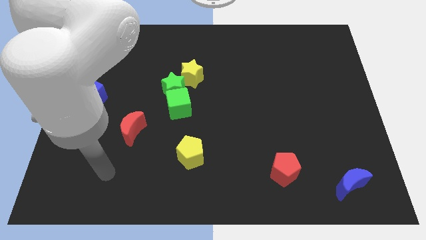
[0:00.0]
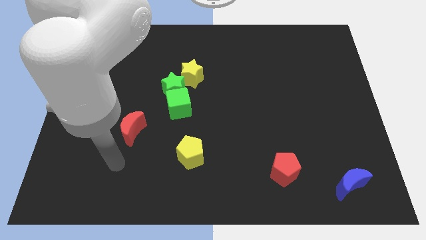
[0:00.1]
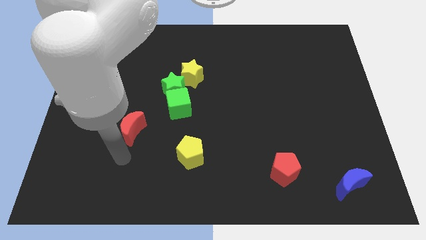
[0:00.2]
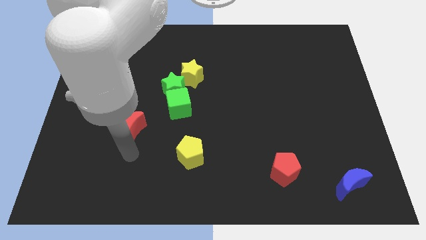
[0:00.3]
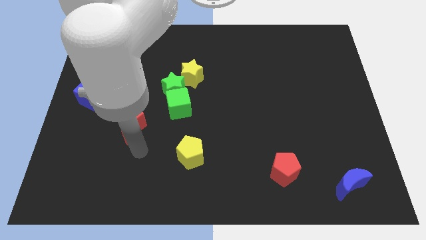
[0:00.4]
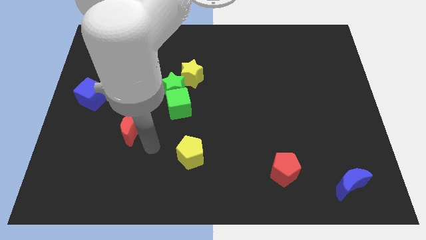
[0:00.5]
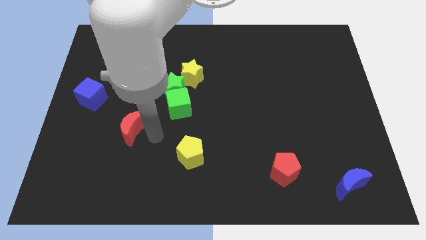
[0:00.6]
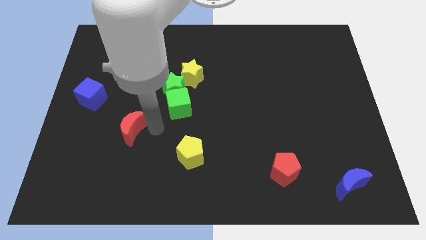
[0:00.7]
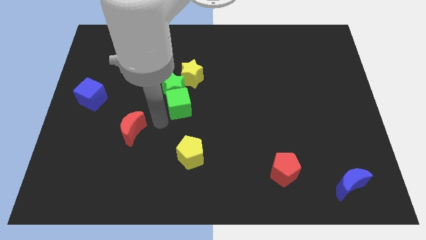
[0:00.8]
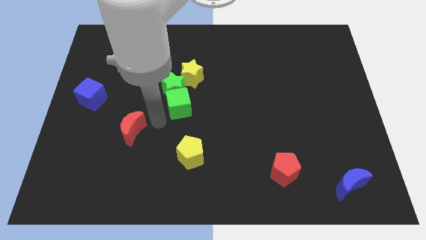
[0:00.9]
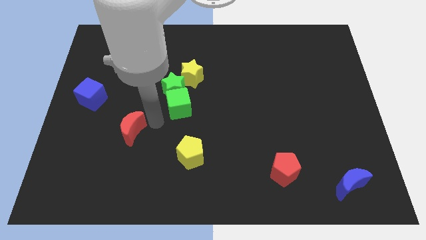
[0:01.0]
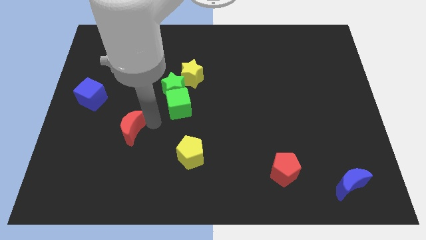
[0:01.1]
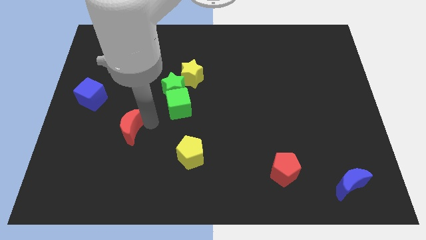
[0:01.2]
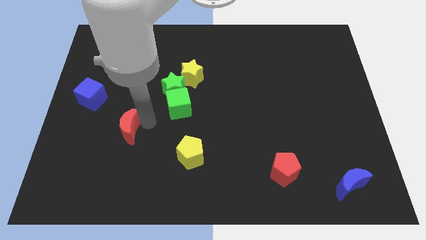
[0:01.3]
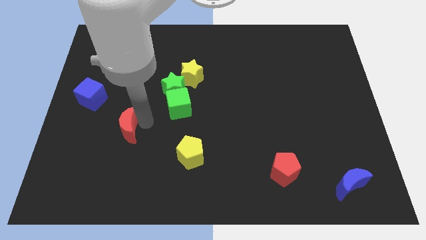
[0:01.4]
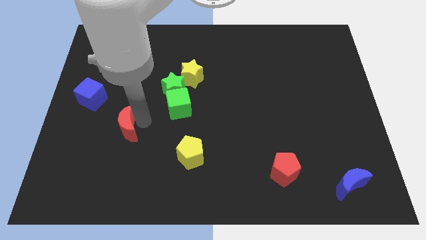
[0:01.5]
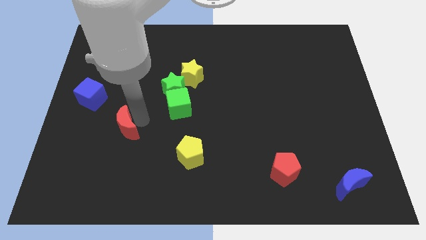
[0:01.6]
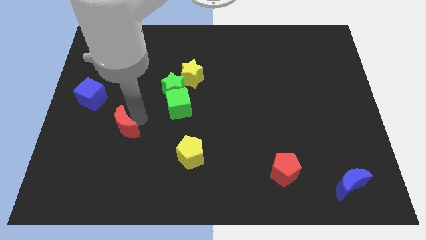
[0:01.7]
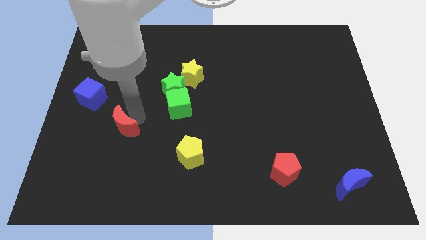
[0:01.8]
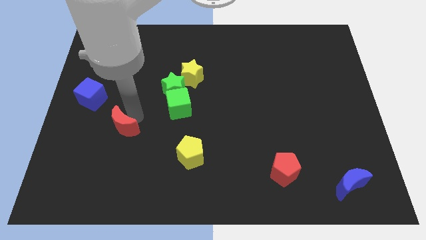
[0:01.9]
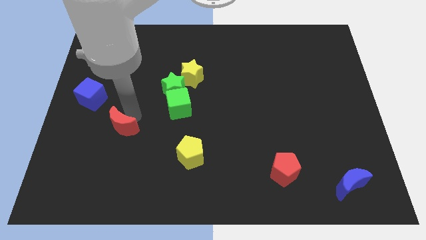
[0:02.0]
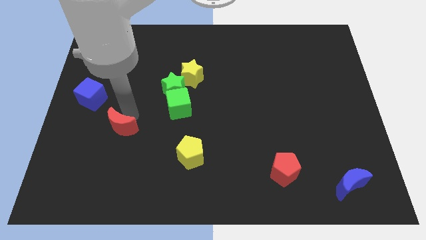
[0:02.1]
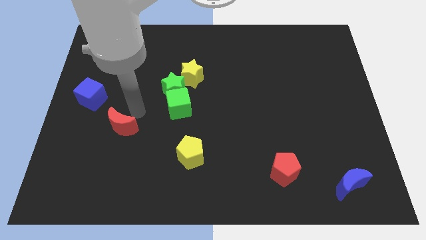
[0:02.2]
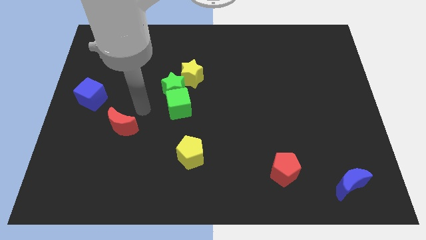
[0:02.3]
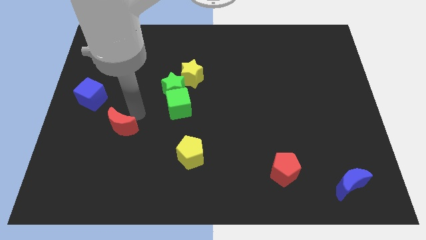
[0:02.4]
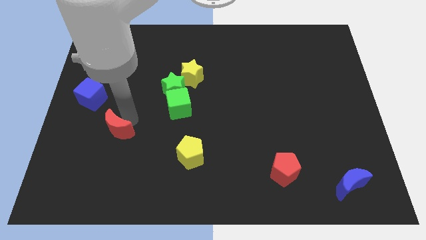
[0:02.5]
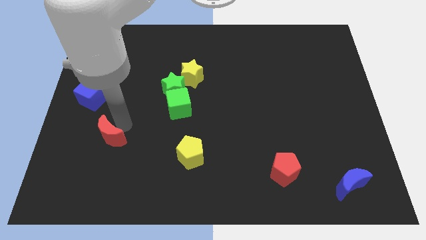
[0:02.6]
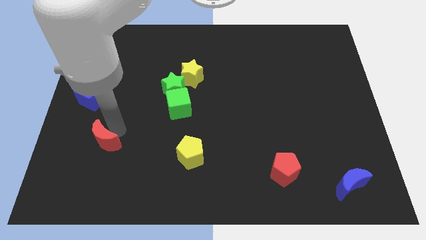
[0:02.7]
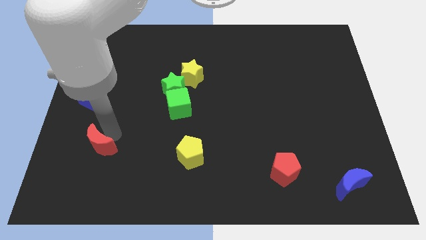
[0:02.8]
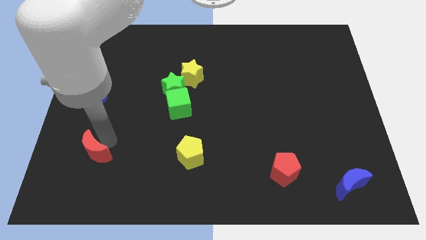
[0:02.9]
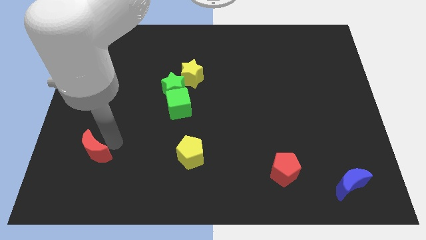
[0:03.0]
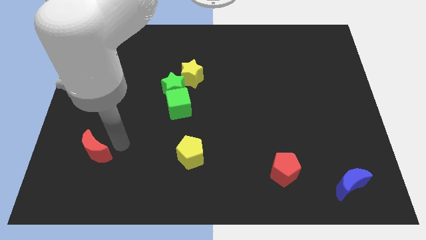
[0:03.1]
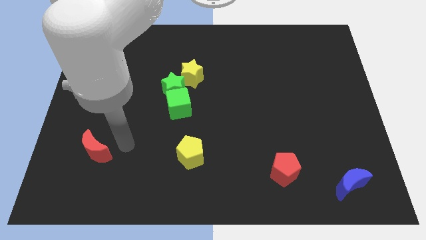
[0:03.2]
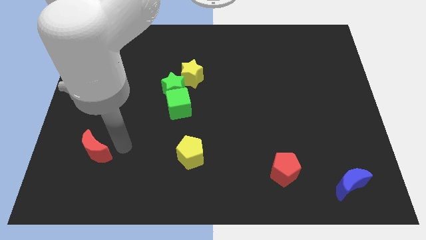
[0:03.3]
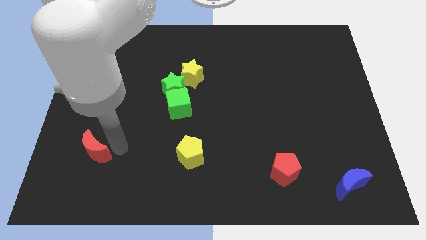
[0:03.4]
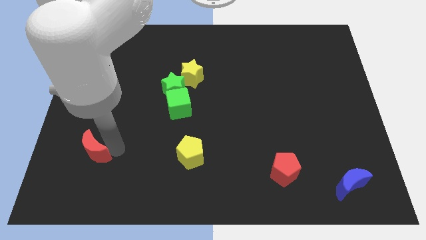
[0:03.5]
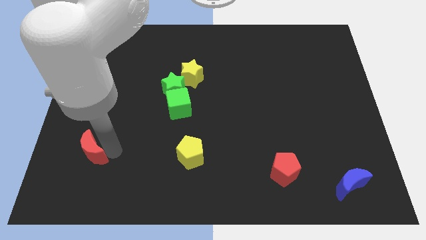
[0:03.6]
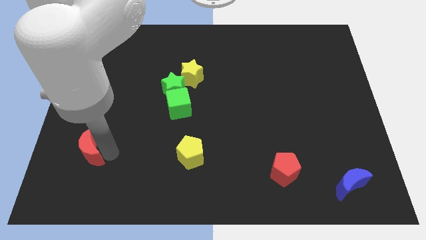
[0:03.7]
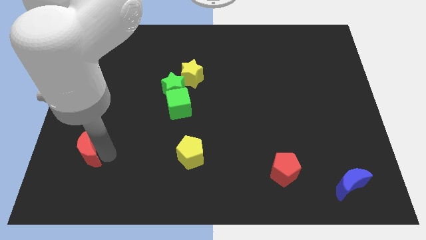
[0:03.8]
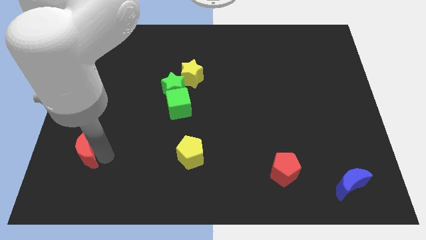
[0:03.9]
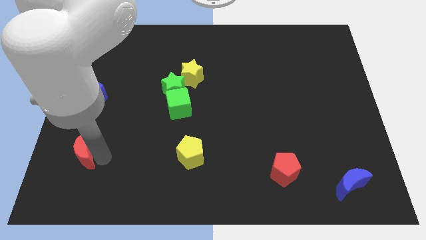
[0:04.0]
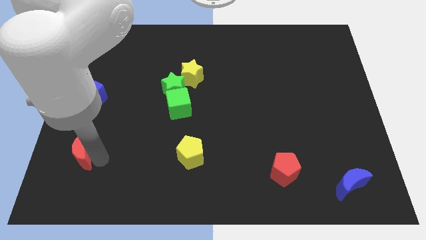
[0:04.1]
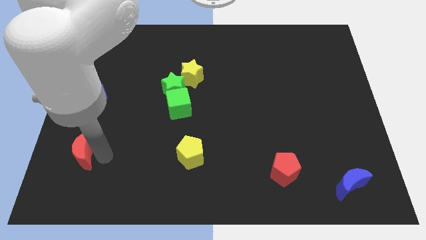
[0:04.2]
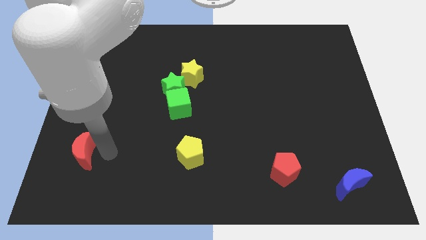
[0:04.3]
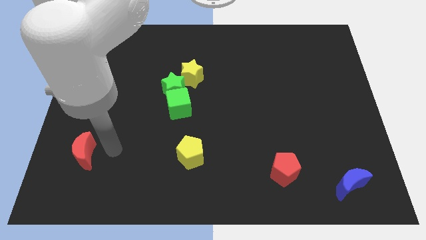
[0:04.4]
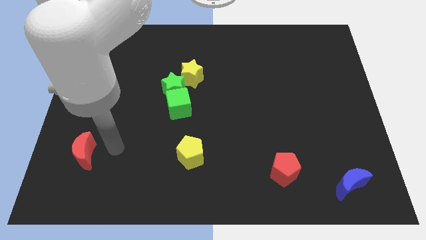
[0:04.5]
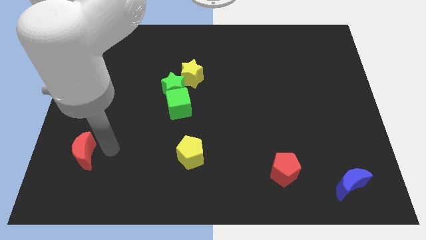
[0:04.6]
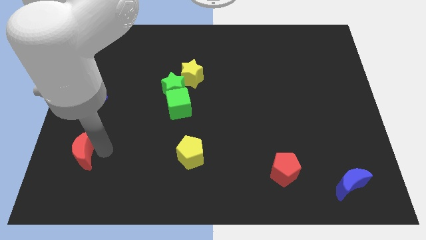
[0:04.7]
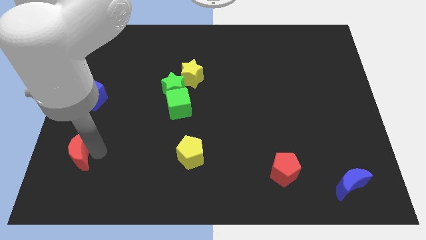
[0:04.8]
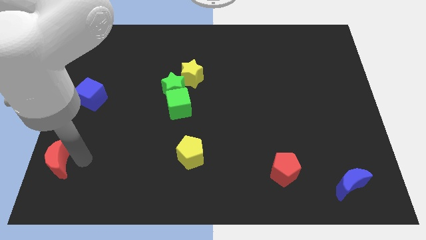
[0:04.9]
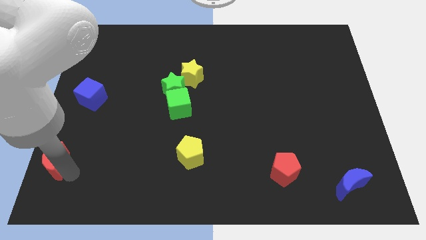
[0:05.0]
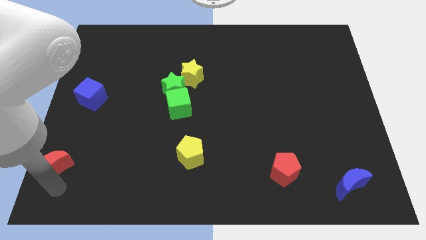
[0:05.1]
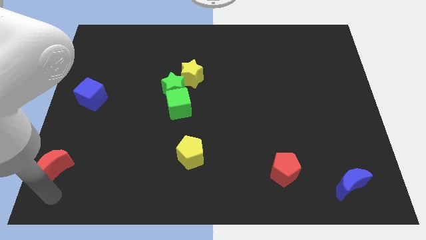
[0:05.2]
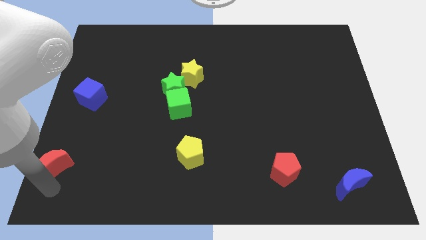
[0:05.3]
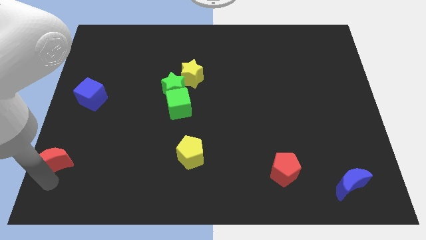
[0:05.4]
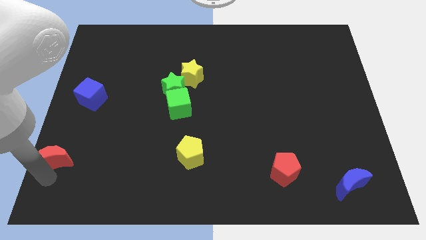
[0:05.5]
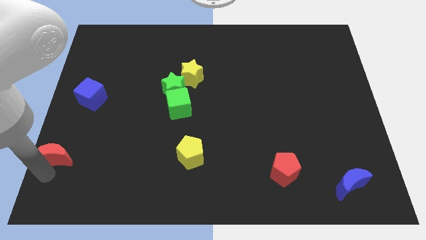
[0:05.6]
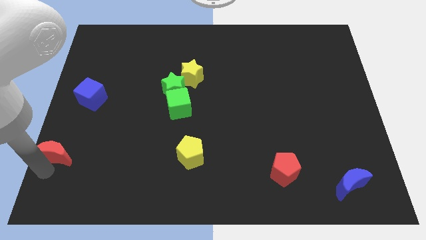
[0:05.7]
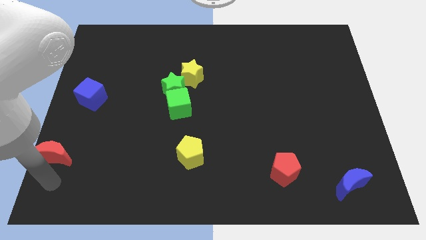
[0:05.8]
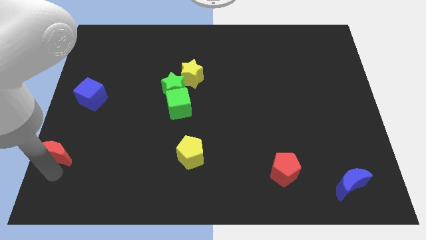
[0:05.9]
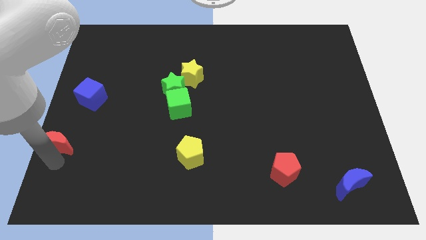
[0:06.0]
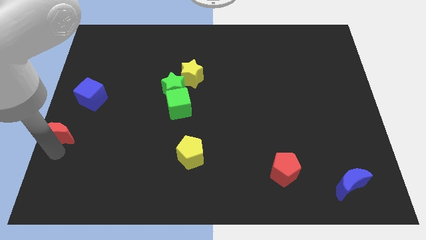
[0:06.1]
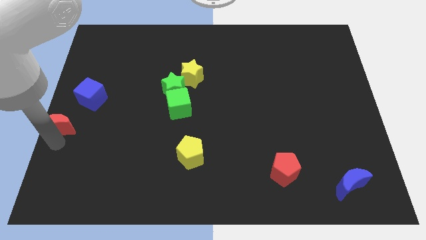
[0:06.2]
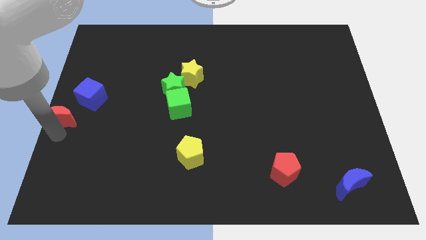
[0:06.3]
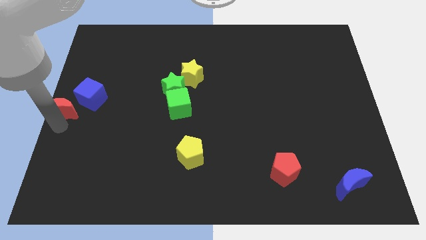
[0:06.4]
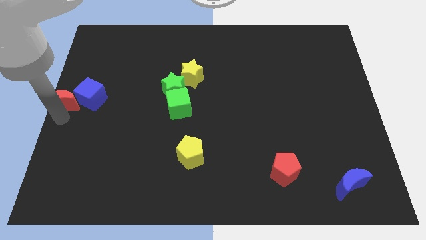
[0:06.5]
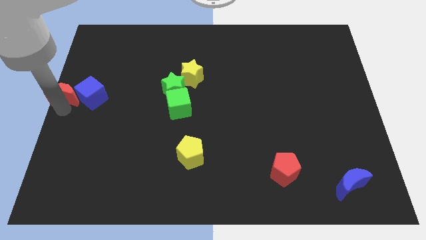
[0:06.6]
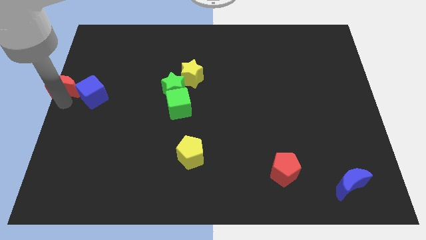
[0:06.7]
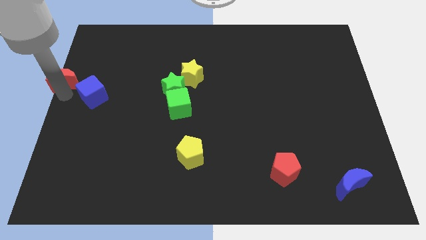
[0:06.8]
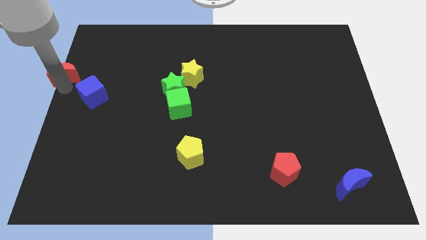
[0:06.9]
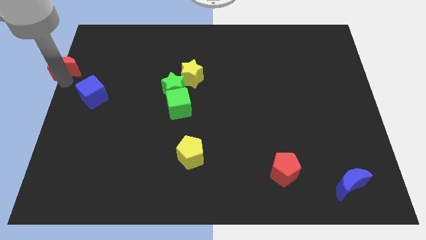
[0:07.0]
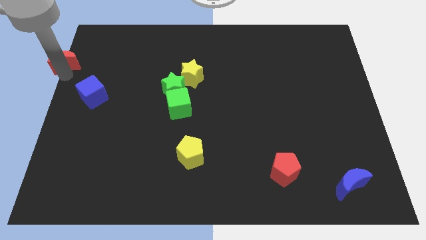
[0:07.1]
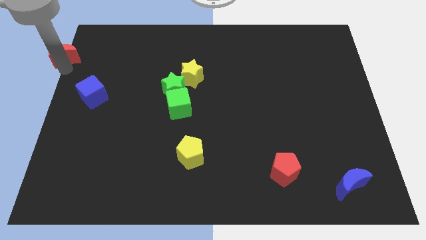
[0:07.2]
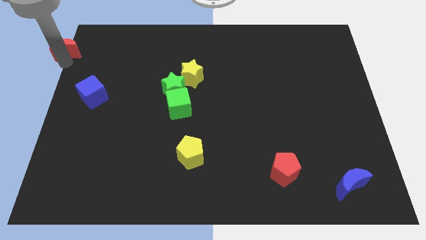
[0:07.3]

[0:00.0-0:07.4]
put the red moon to the top left of the board
